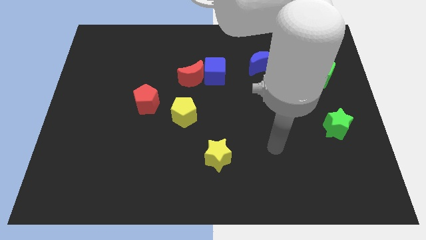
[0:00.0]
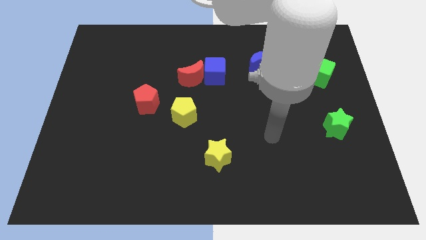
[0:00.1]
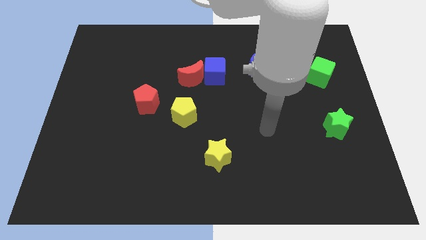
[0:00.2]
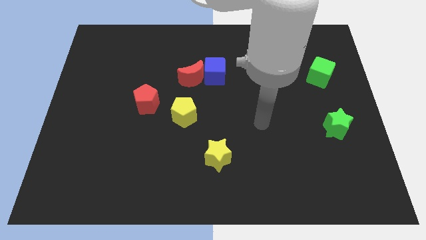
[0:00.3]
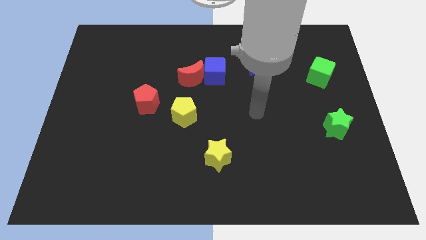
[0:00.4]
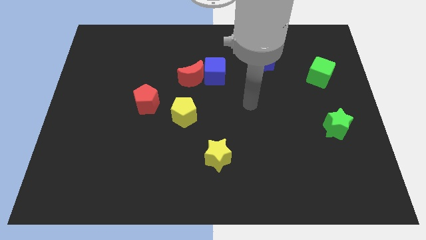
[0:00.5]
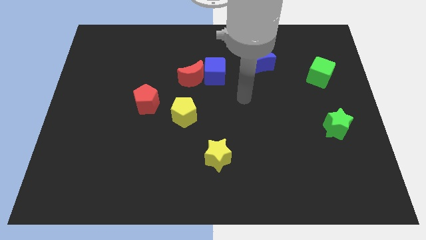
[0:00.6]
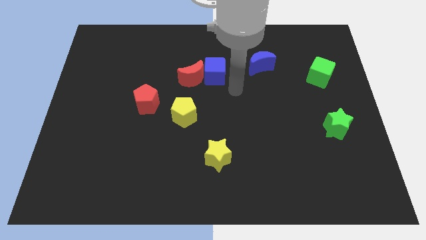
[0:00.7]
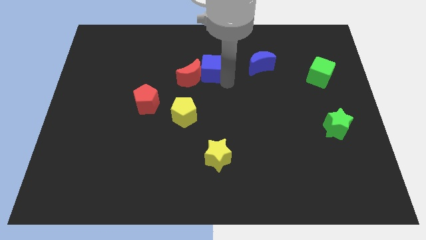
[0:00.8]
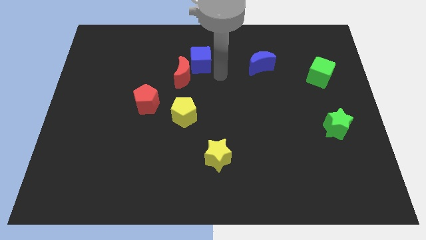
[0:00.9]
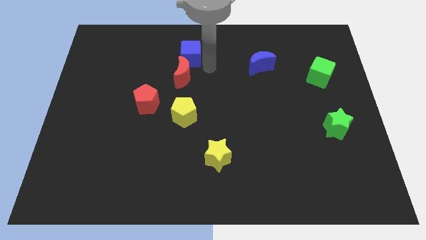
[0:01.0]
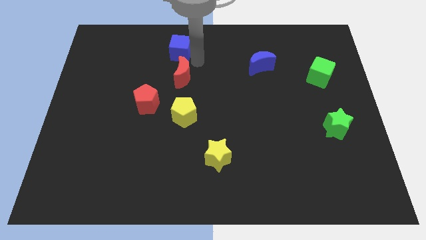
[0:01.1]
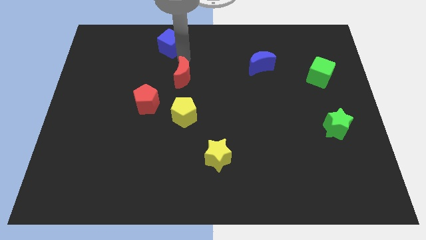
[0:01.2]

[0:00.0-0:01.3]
separate the red moon from the blue cube

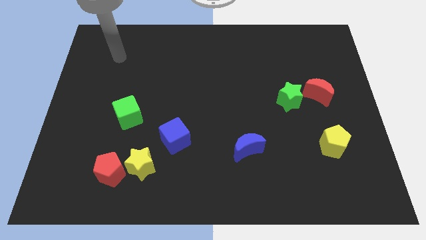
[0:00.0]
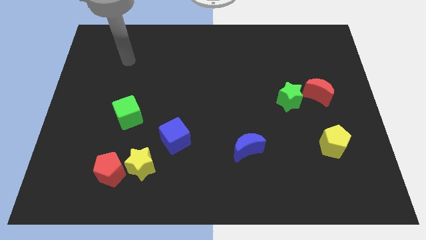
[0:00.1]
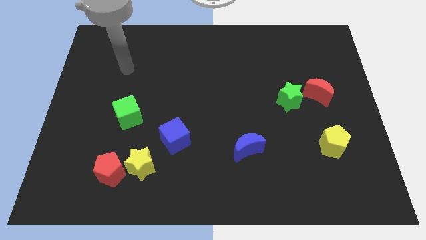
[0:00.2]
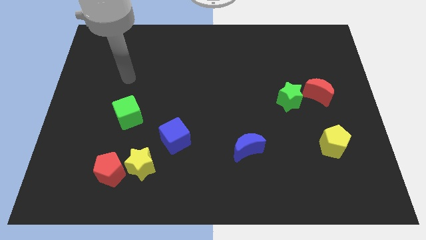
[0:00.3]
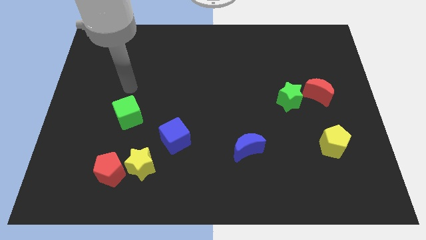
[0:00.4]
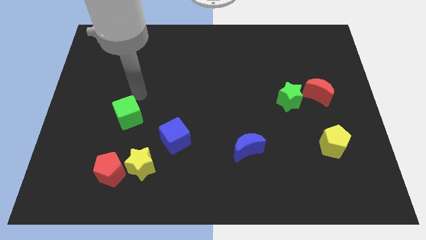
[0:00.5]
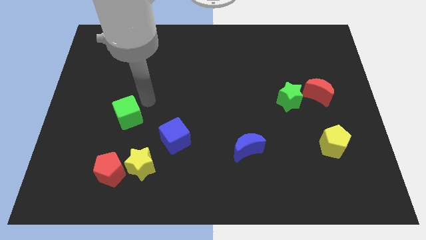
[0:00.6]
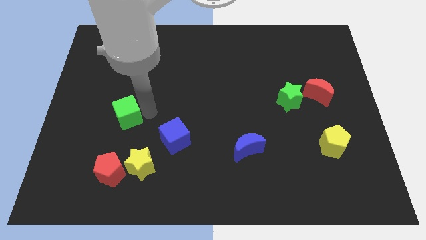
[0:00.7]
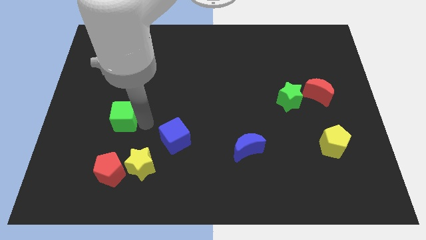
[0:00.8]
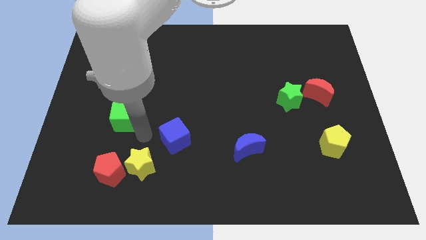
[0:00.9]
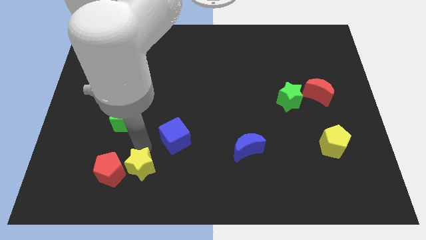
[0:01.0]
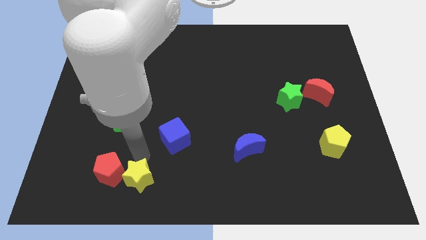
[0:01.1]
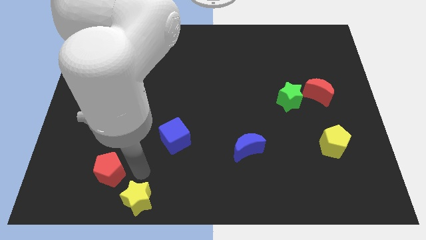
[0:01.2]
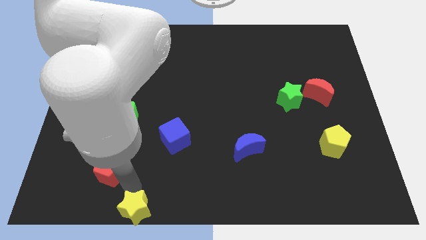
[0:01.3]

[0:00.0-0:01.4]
separate the red pentagon from the yellow star

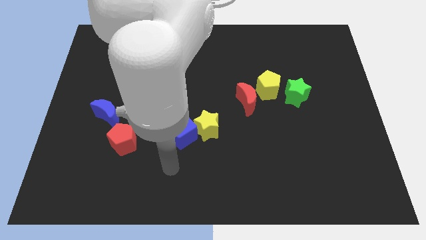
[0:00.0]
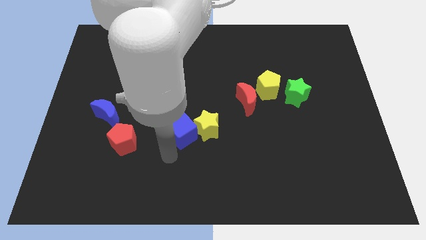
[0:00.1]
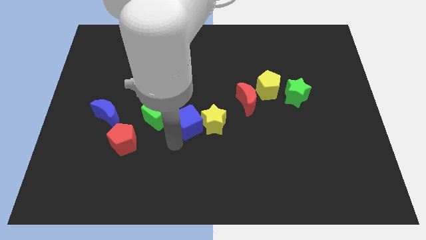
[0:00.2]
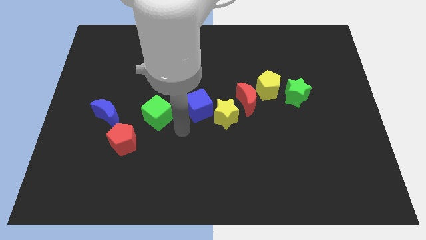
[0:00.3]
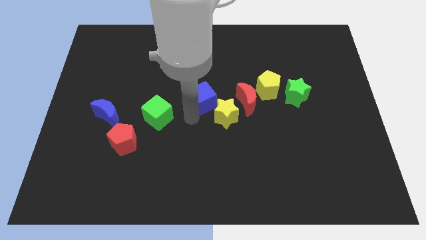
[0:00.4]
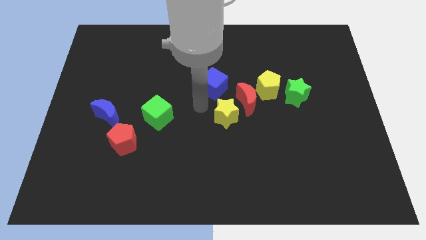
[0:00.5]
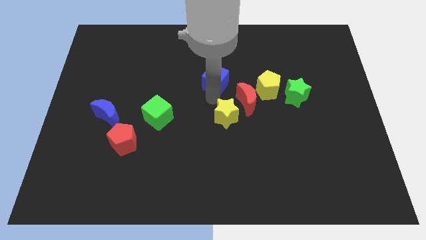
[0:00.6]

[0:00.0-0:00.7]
move the yellow star away from the blue cube

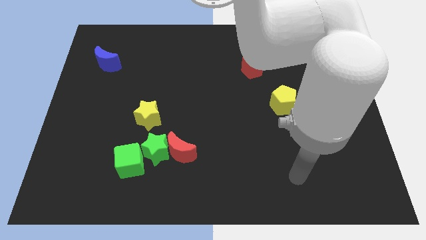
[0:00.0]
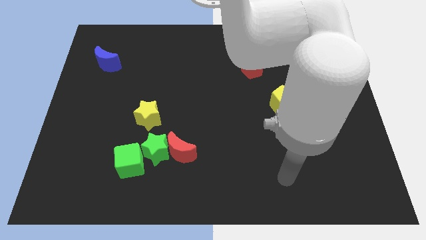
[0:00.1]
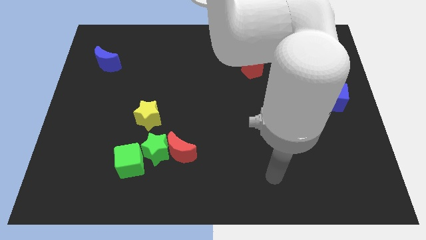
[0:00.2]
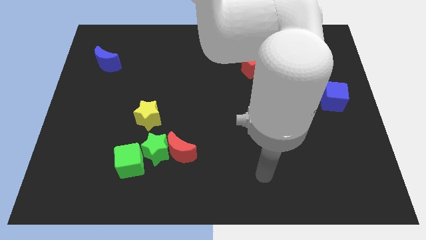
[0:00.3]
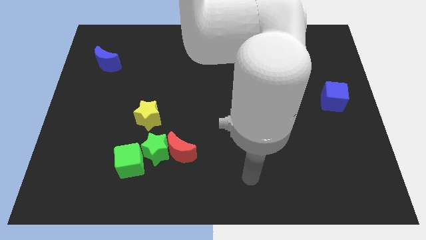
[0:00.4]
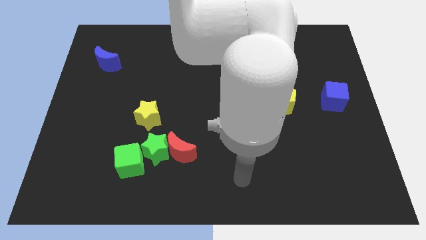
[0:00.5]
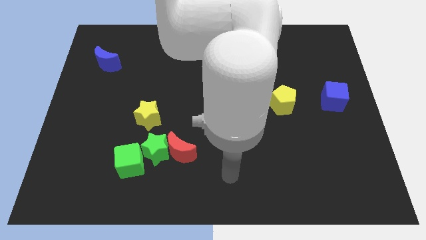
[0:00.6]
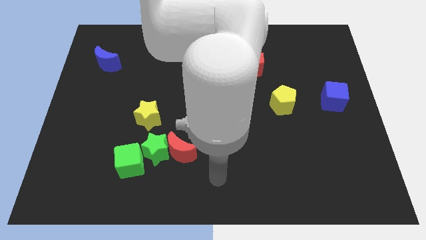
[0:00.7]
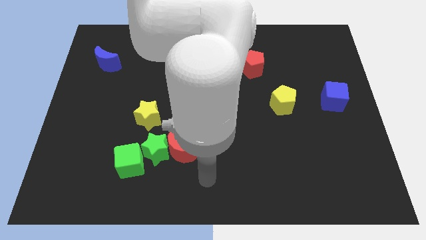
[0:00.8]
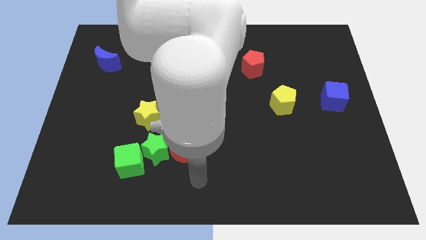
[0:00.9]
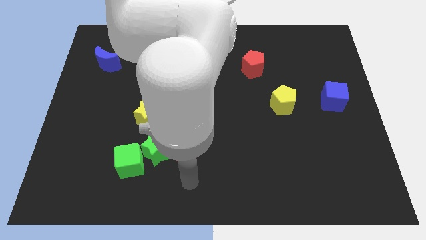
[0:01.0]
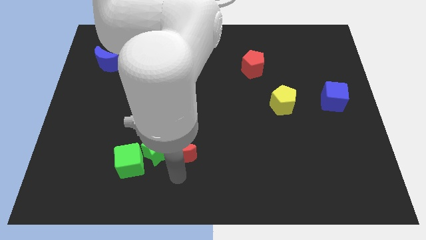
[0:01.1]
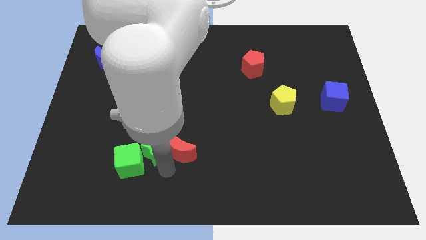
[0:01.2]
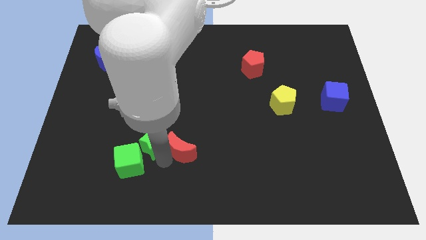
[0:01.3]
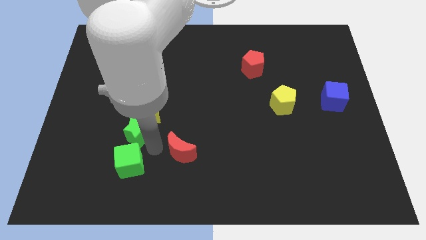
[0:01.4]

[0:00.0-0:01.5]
move the red moon away from the green star

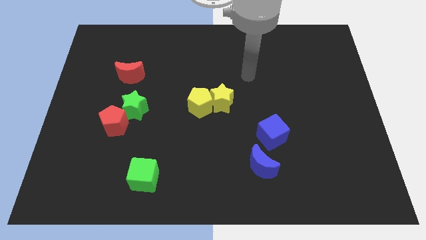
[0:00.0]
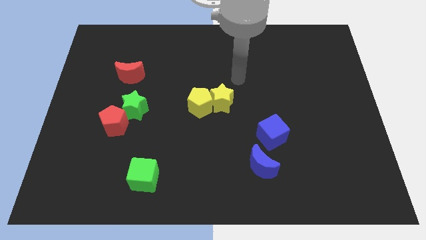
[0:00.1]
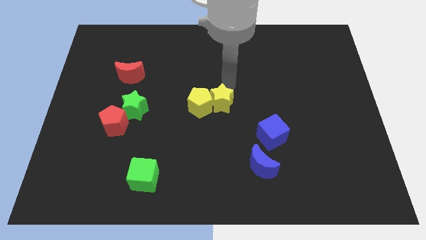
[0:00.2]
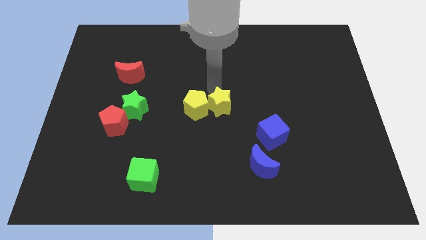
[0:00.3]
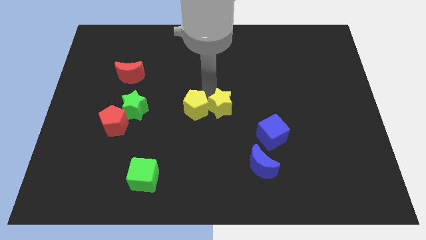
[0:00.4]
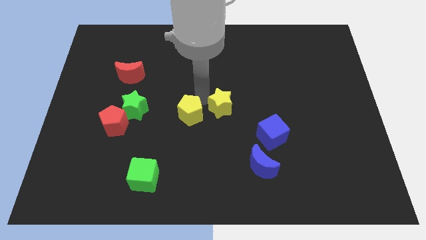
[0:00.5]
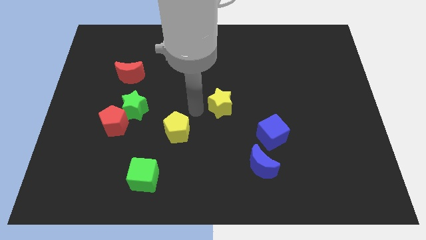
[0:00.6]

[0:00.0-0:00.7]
move the yellow star away from the yellow pentagon

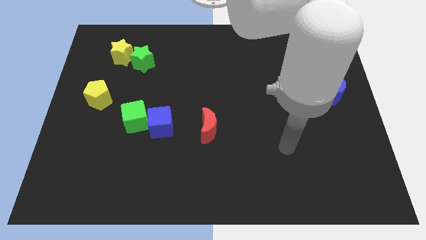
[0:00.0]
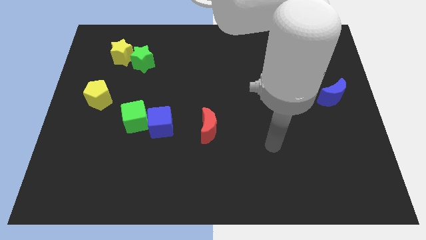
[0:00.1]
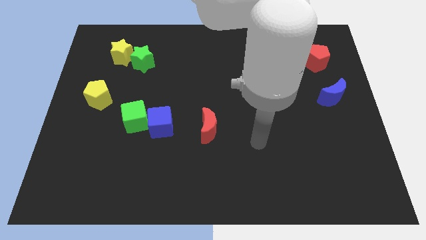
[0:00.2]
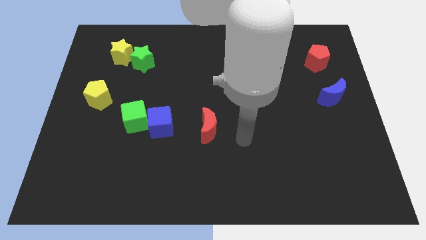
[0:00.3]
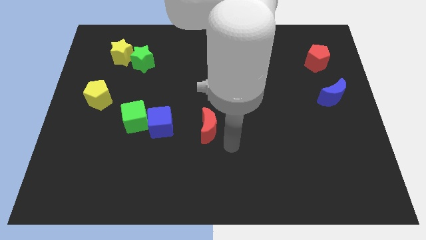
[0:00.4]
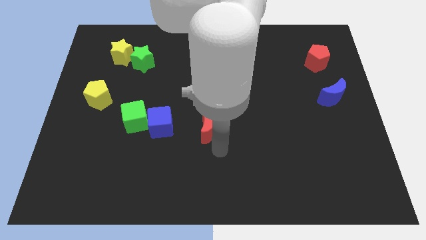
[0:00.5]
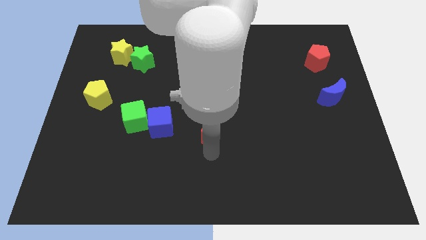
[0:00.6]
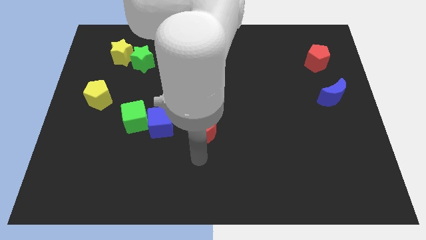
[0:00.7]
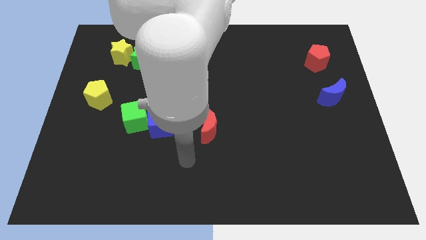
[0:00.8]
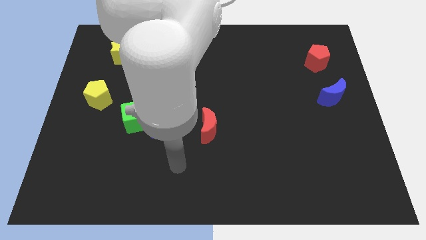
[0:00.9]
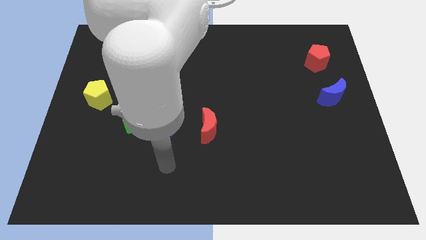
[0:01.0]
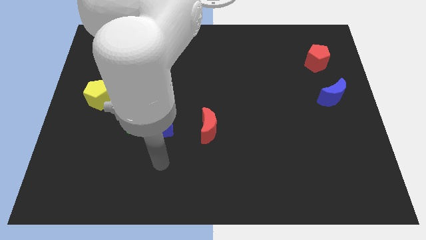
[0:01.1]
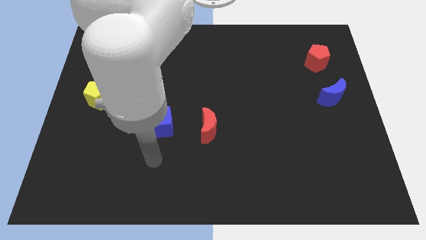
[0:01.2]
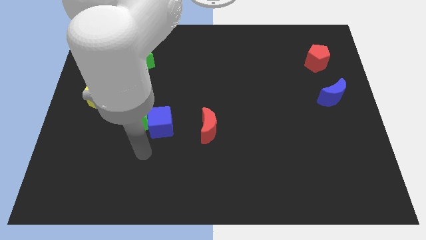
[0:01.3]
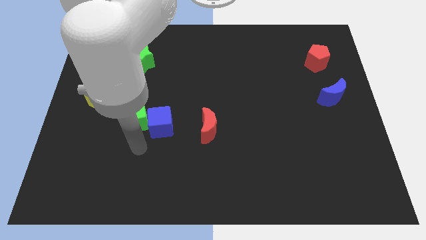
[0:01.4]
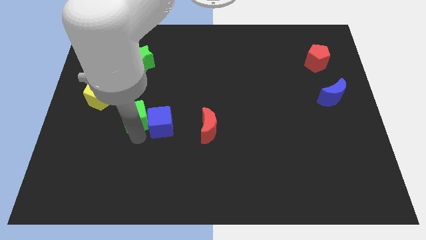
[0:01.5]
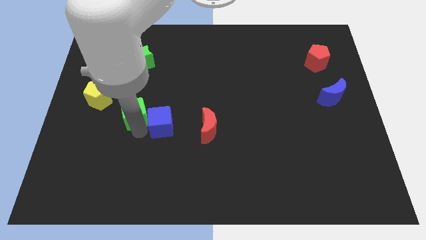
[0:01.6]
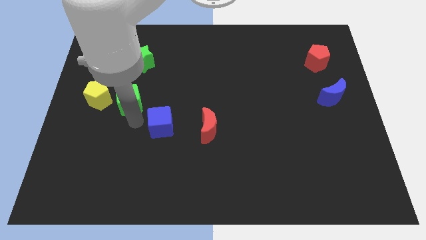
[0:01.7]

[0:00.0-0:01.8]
pull the blue cube apart from the green cube

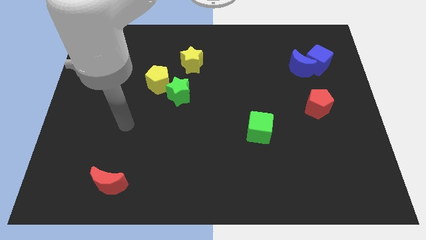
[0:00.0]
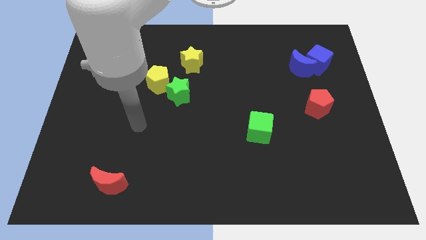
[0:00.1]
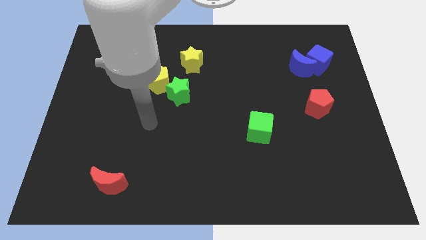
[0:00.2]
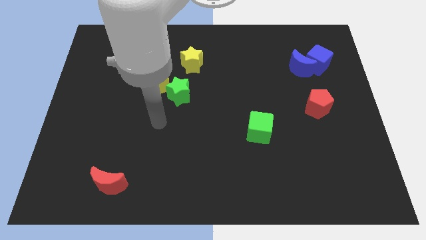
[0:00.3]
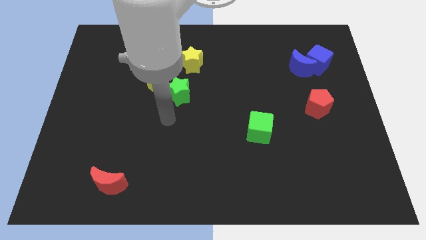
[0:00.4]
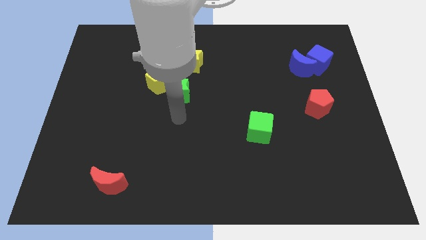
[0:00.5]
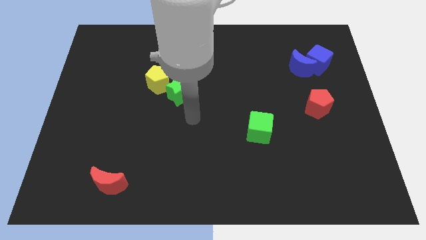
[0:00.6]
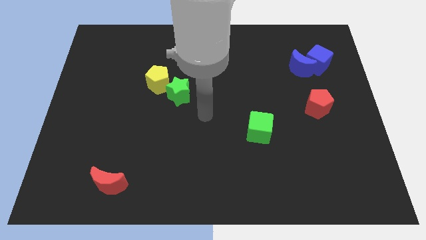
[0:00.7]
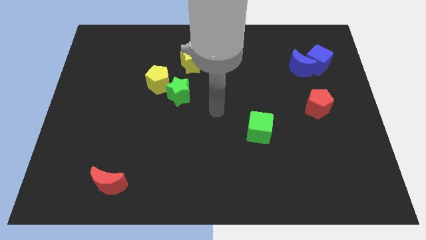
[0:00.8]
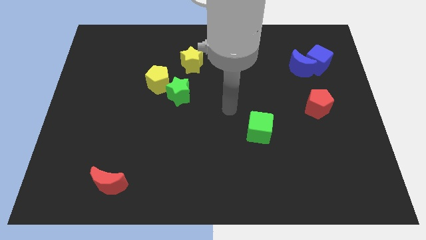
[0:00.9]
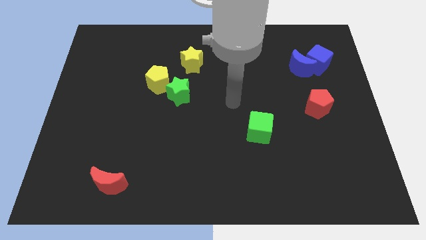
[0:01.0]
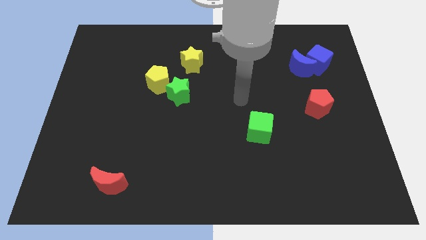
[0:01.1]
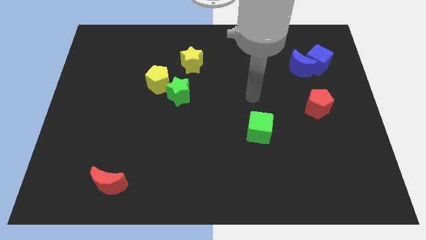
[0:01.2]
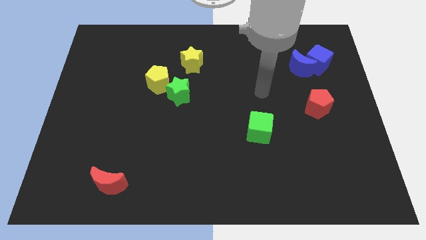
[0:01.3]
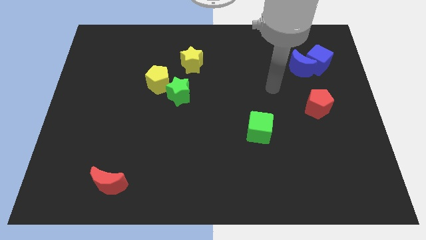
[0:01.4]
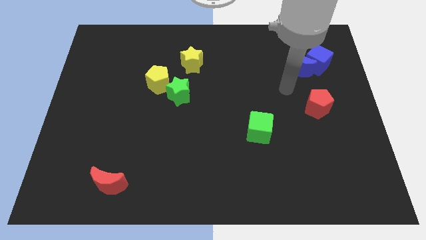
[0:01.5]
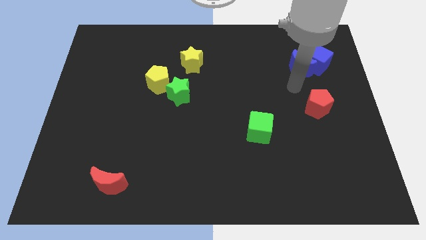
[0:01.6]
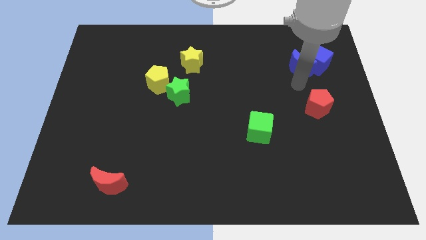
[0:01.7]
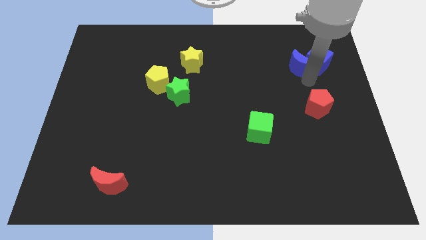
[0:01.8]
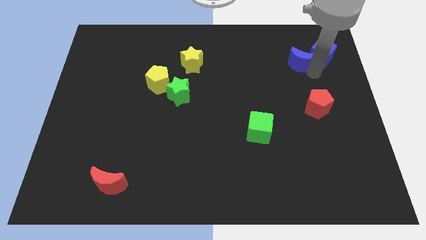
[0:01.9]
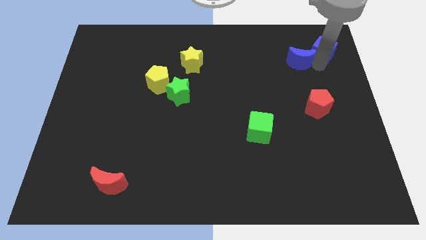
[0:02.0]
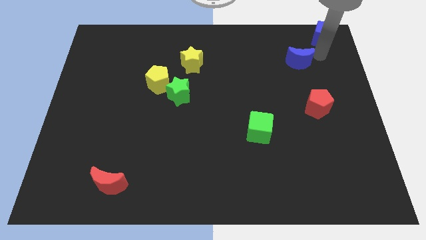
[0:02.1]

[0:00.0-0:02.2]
pull the blue moon apart from the blue cube
